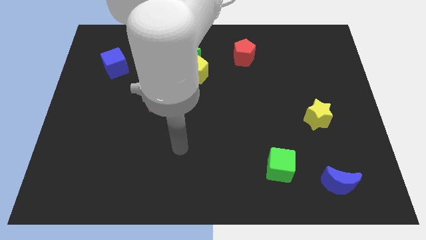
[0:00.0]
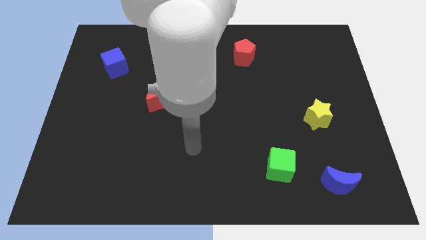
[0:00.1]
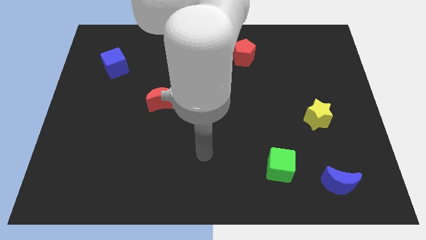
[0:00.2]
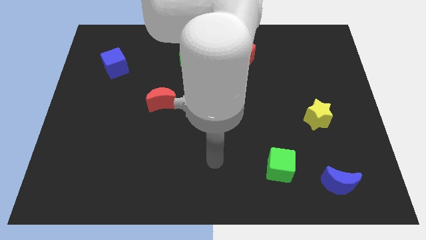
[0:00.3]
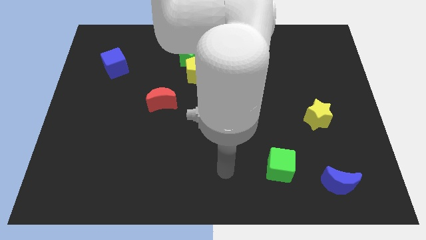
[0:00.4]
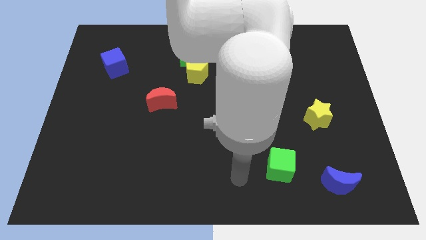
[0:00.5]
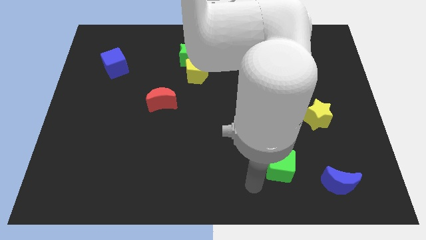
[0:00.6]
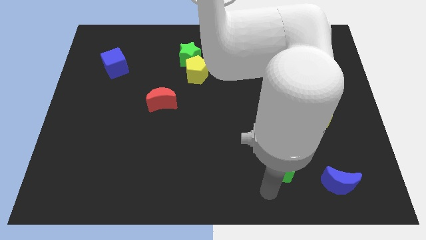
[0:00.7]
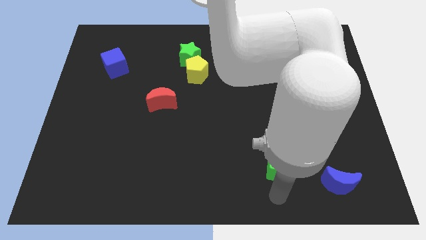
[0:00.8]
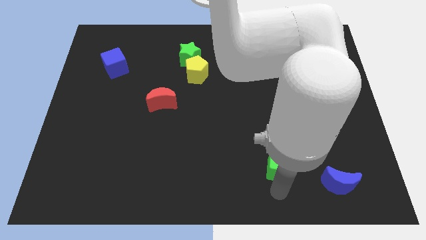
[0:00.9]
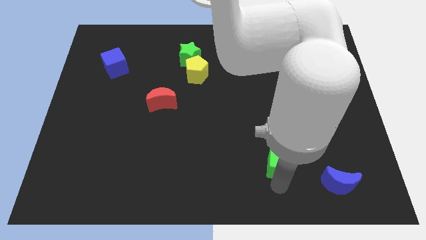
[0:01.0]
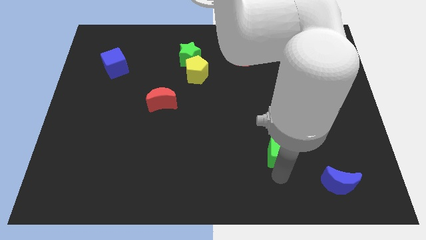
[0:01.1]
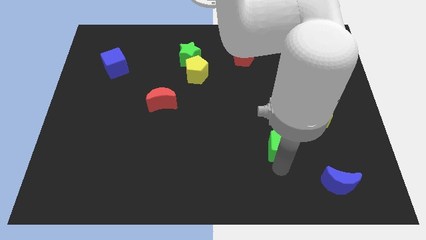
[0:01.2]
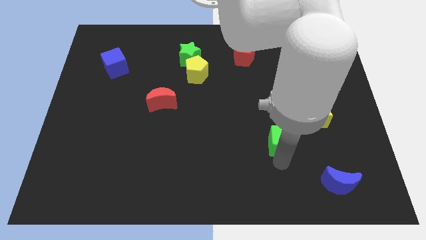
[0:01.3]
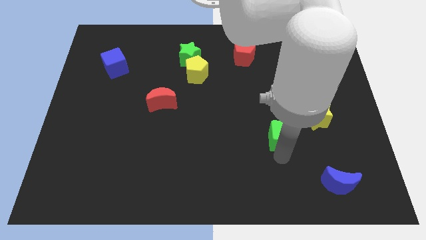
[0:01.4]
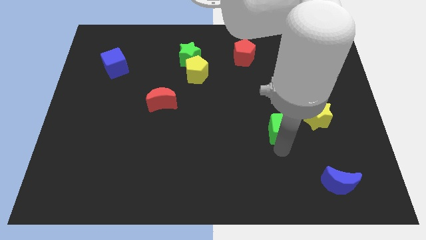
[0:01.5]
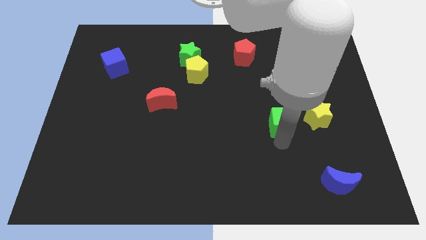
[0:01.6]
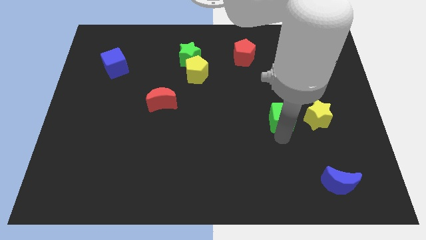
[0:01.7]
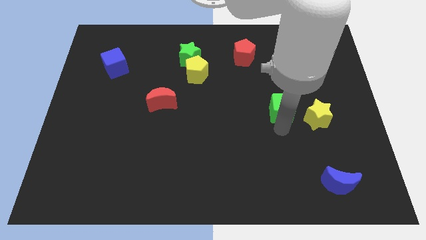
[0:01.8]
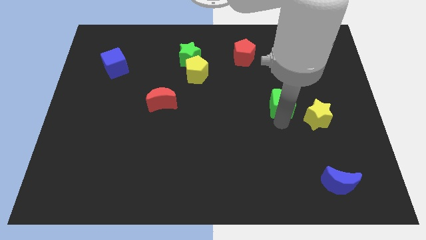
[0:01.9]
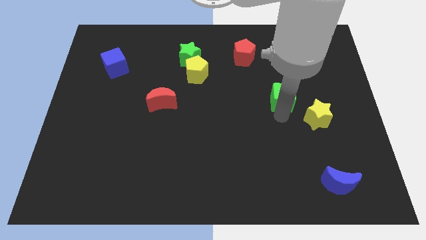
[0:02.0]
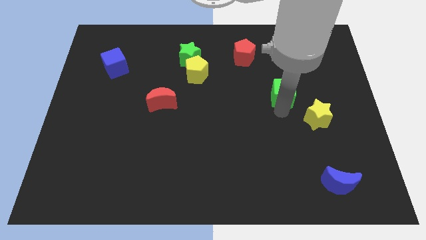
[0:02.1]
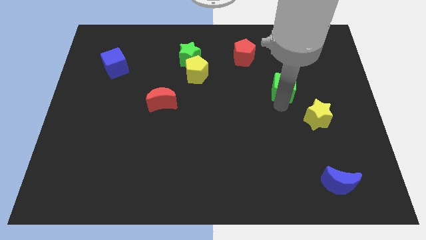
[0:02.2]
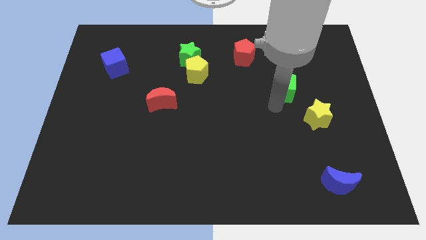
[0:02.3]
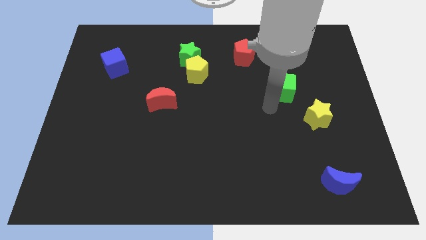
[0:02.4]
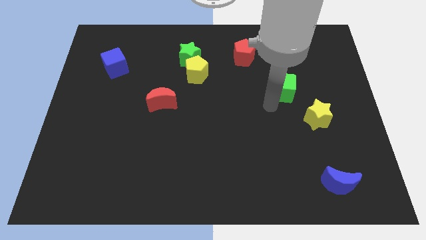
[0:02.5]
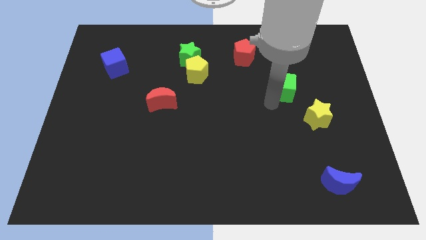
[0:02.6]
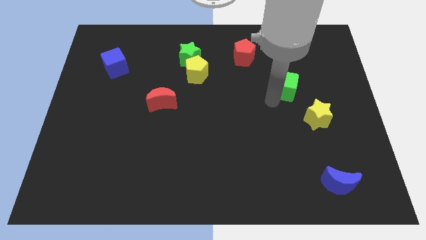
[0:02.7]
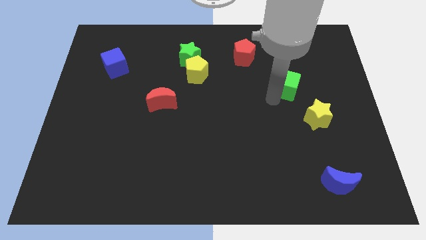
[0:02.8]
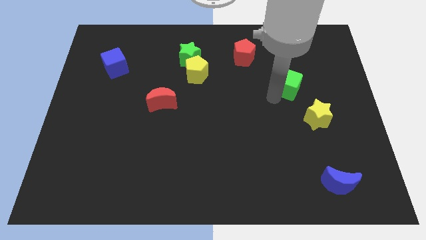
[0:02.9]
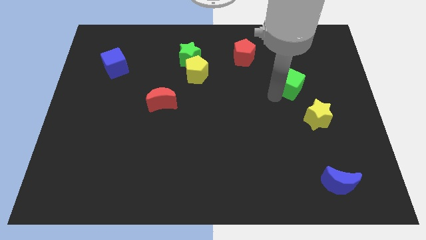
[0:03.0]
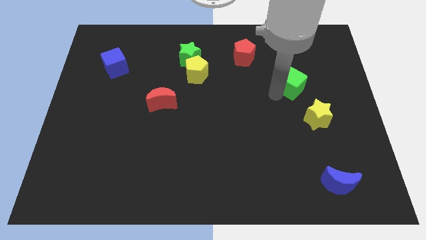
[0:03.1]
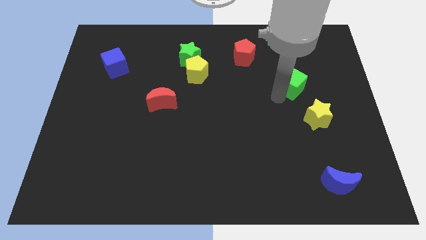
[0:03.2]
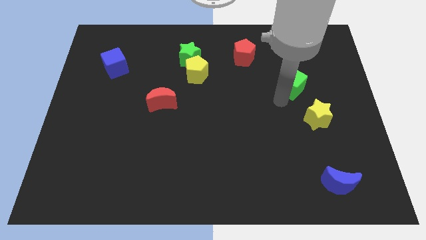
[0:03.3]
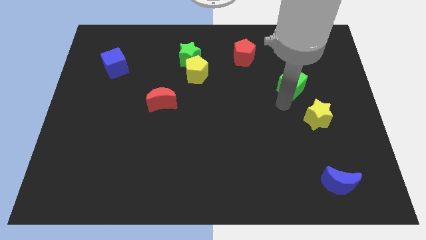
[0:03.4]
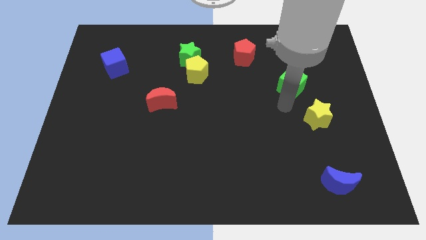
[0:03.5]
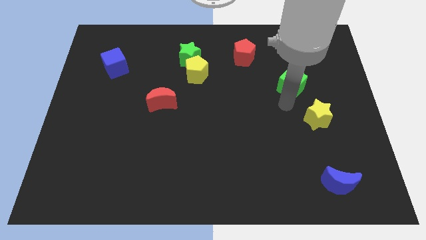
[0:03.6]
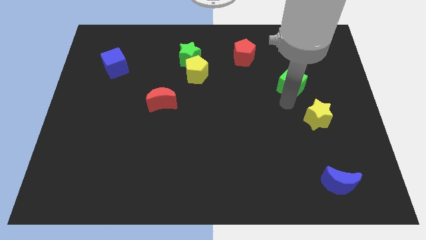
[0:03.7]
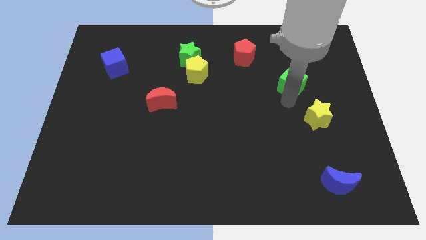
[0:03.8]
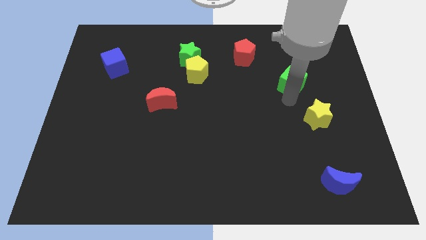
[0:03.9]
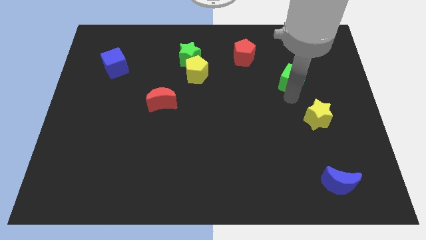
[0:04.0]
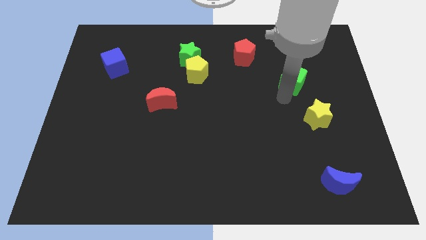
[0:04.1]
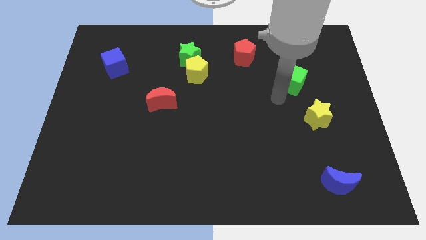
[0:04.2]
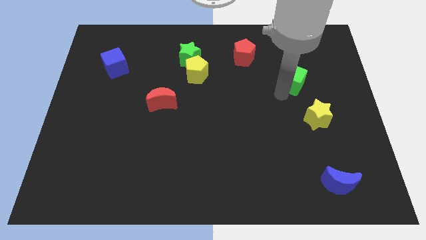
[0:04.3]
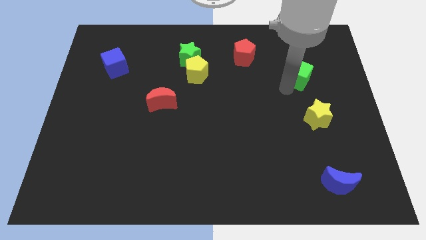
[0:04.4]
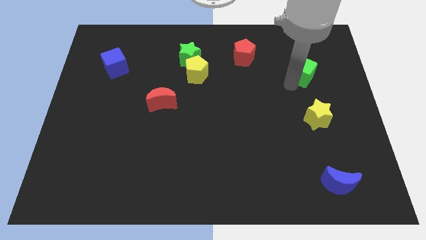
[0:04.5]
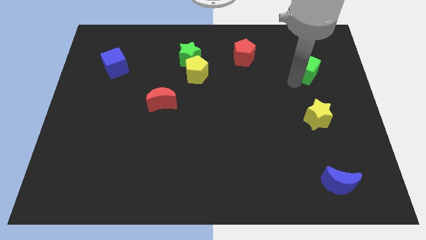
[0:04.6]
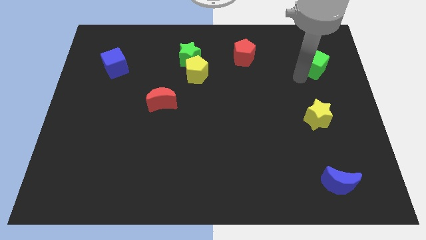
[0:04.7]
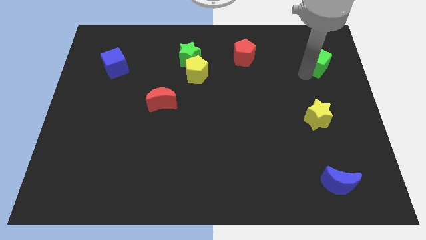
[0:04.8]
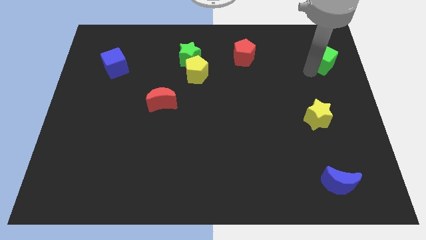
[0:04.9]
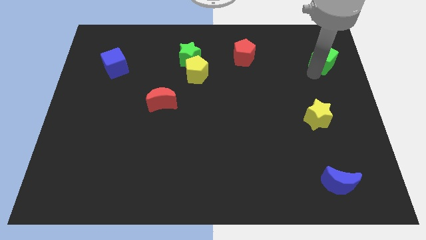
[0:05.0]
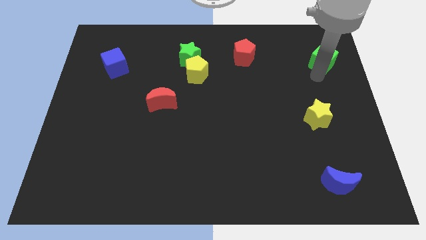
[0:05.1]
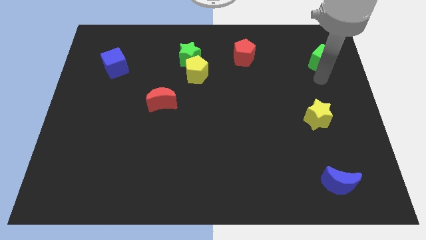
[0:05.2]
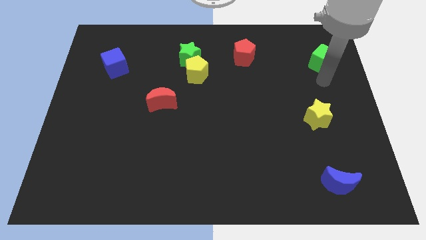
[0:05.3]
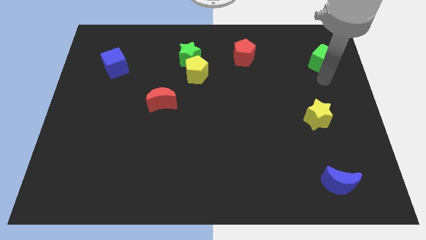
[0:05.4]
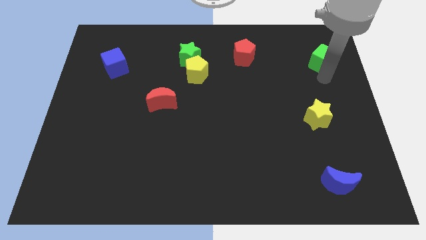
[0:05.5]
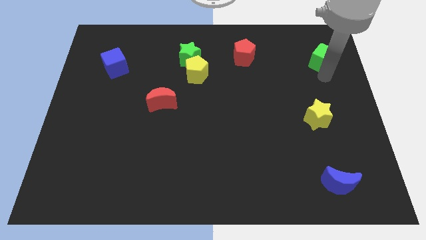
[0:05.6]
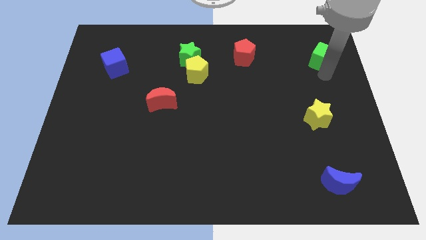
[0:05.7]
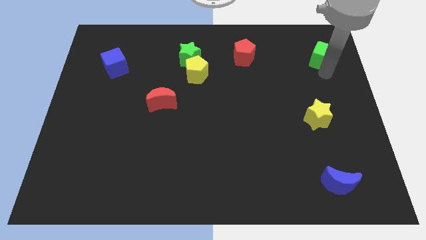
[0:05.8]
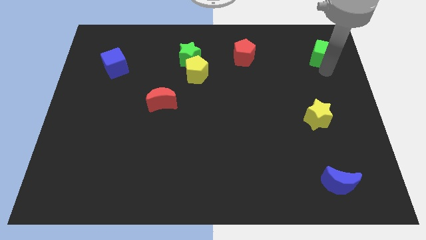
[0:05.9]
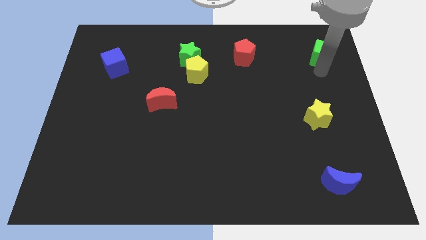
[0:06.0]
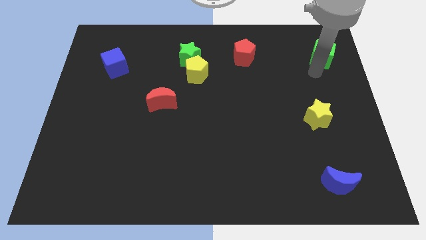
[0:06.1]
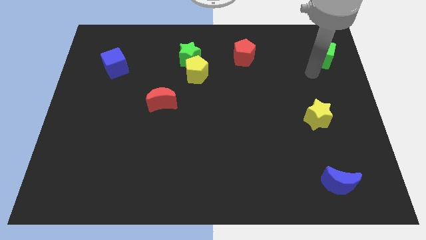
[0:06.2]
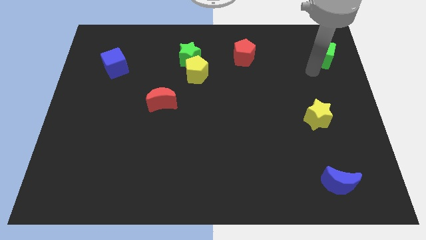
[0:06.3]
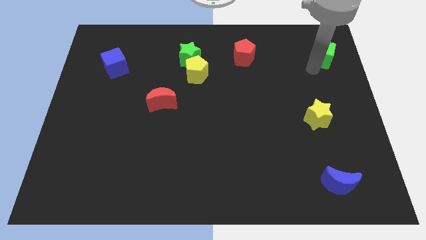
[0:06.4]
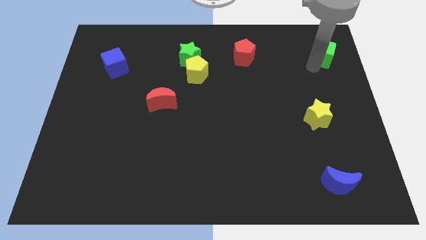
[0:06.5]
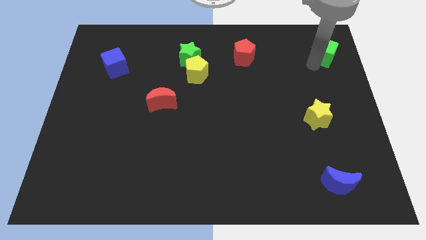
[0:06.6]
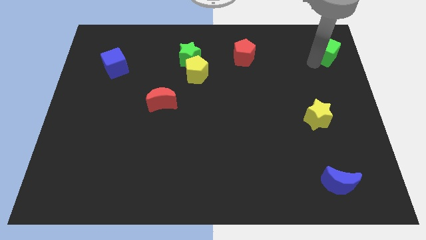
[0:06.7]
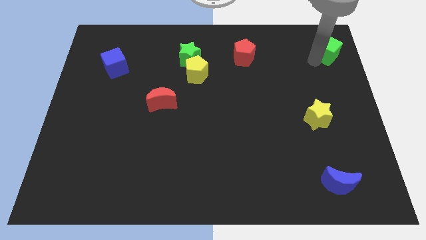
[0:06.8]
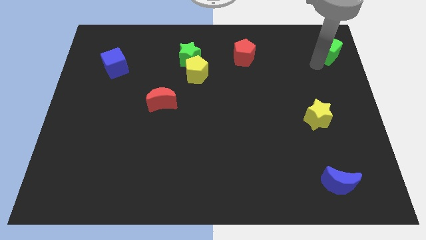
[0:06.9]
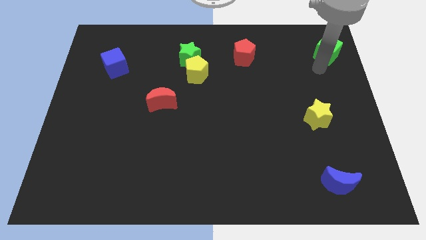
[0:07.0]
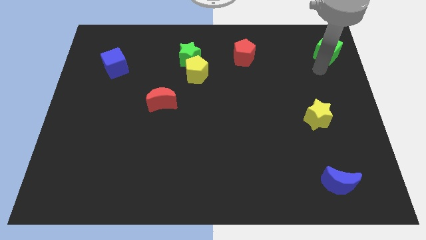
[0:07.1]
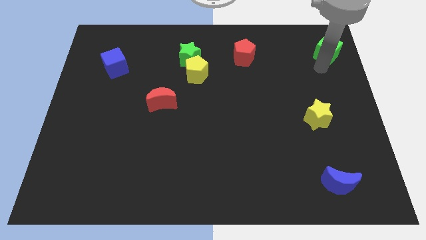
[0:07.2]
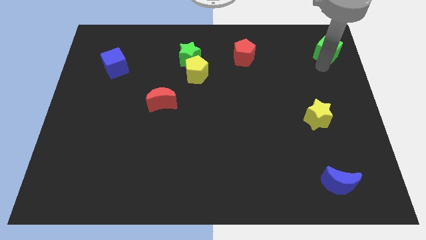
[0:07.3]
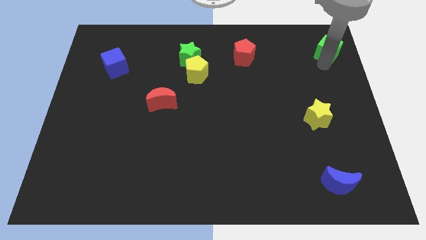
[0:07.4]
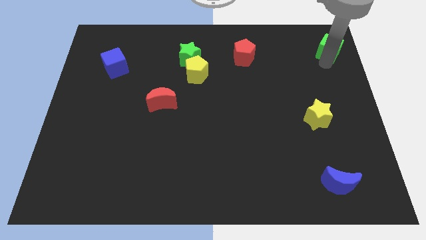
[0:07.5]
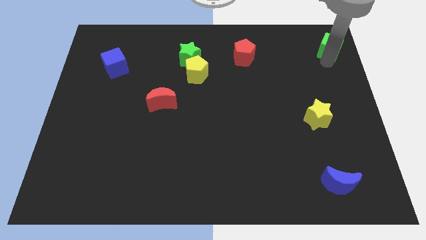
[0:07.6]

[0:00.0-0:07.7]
move the green cube to the top right corner
